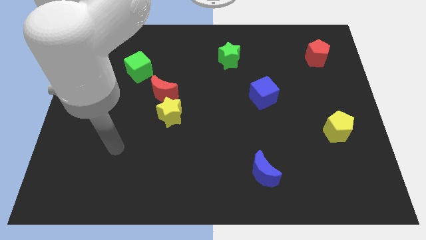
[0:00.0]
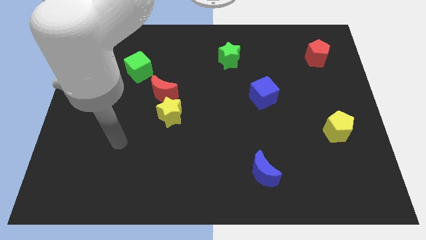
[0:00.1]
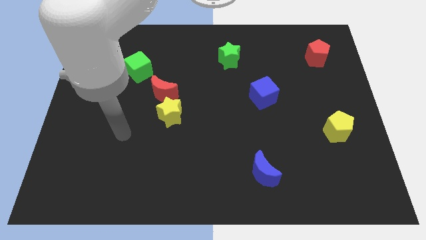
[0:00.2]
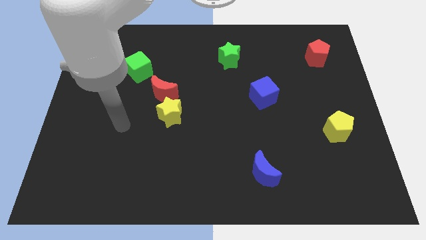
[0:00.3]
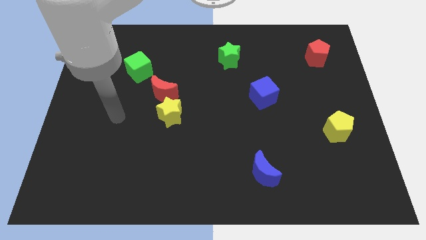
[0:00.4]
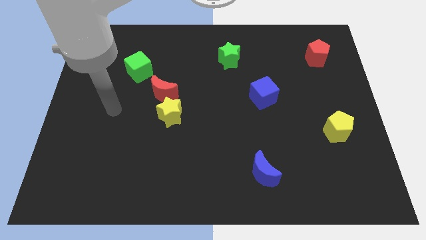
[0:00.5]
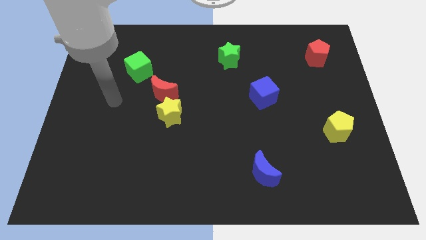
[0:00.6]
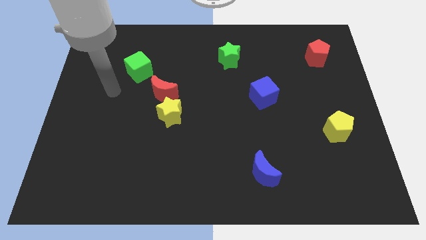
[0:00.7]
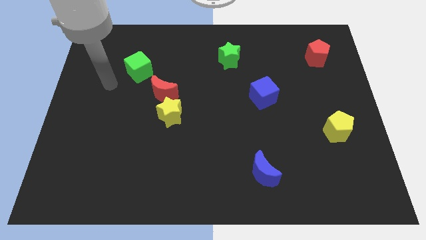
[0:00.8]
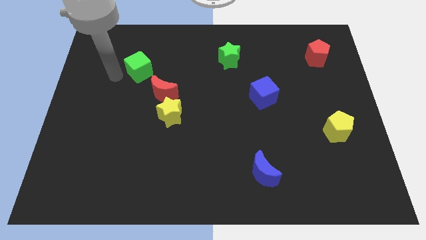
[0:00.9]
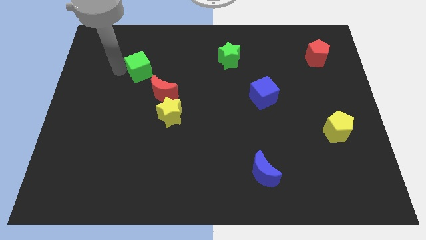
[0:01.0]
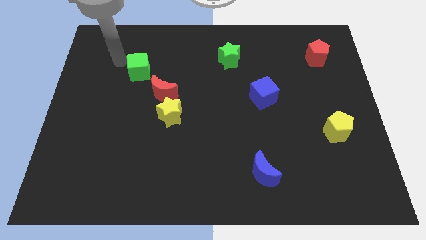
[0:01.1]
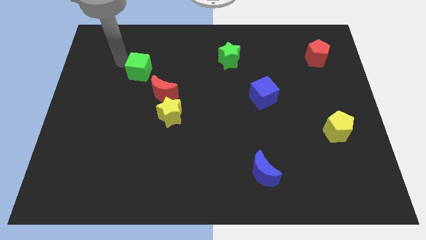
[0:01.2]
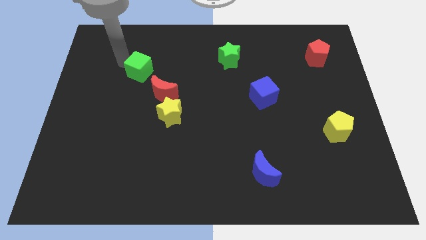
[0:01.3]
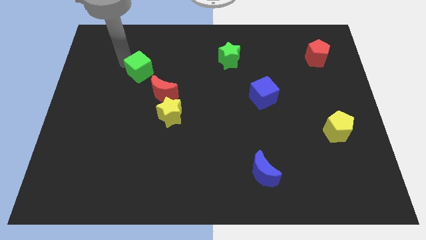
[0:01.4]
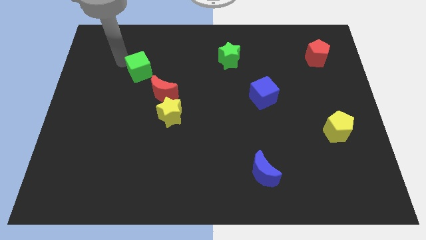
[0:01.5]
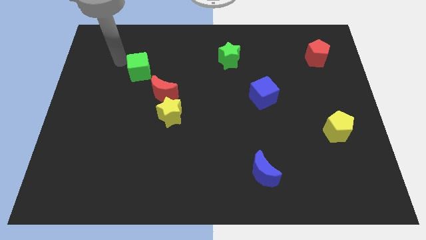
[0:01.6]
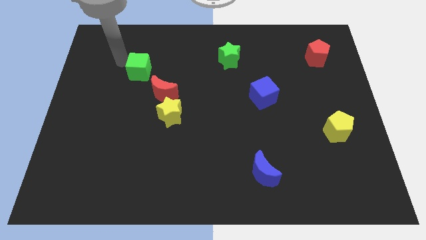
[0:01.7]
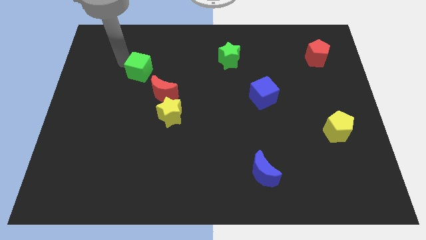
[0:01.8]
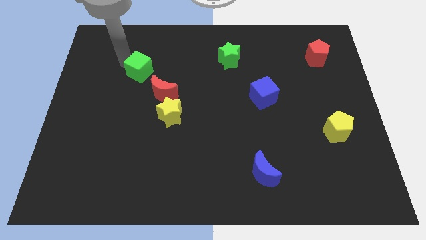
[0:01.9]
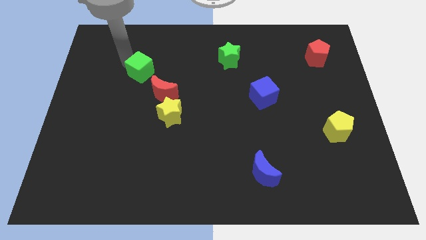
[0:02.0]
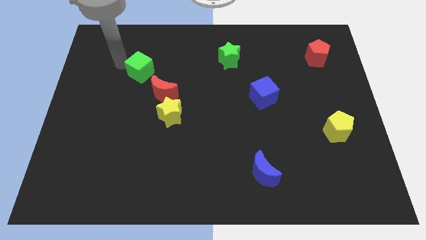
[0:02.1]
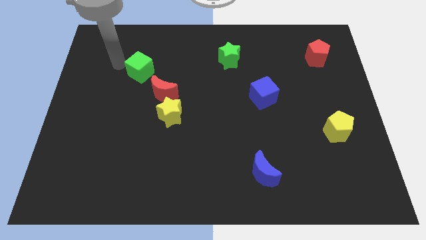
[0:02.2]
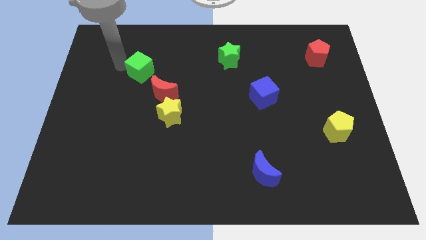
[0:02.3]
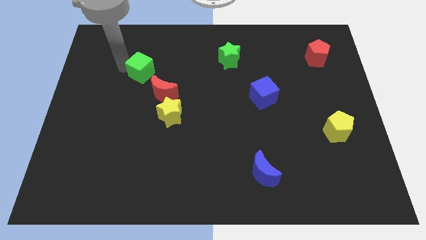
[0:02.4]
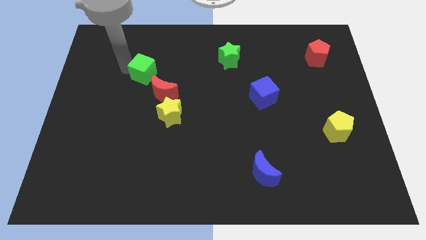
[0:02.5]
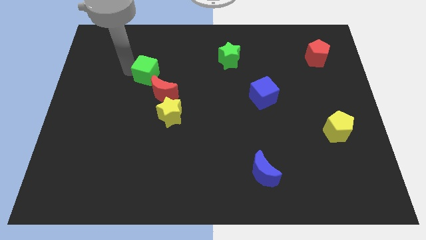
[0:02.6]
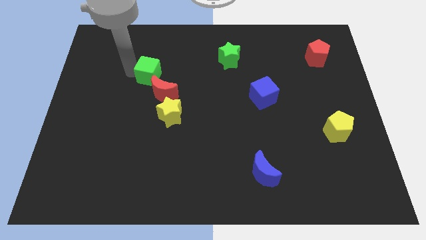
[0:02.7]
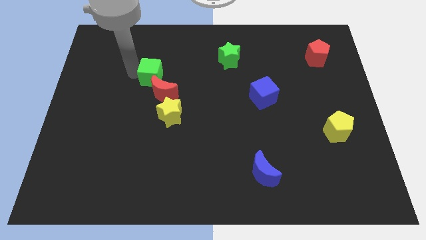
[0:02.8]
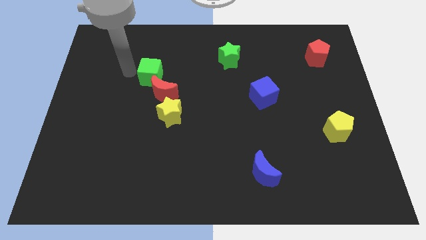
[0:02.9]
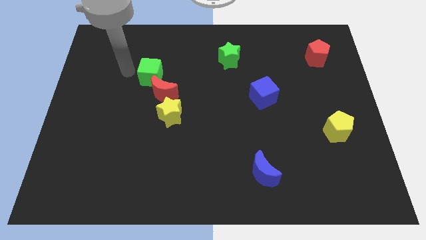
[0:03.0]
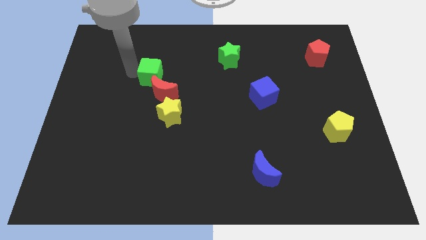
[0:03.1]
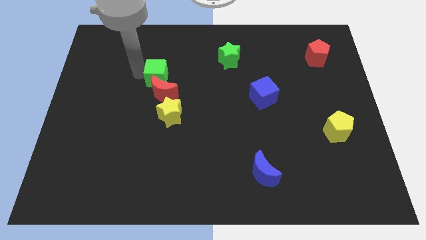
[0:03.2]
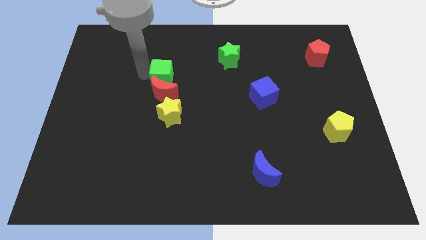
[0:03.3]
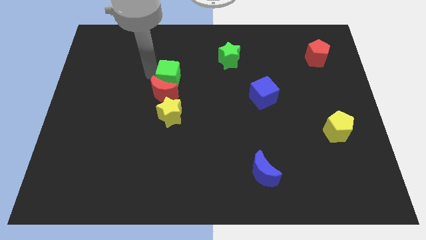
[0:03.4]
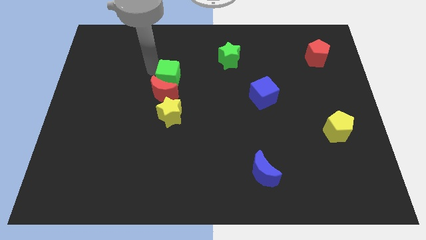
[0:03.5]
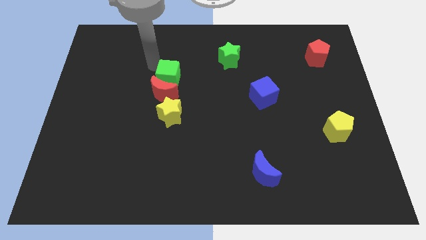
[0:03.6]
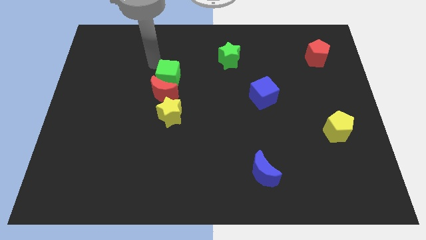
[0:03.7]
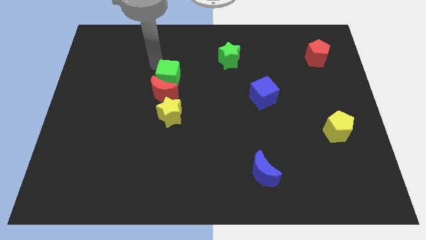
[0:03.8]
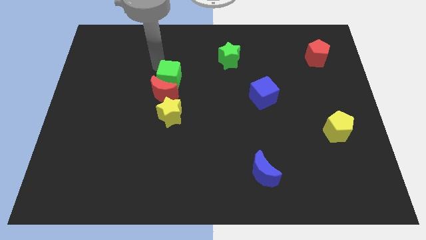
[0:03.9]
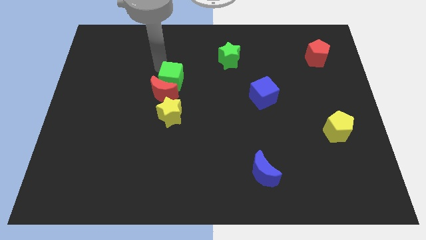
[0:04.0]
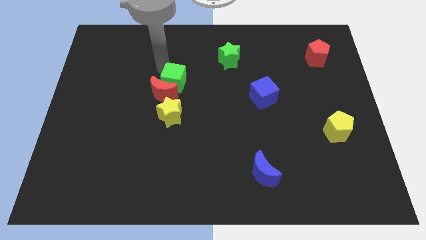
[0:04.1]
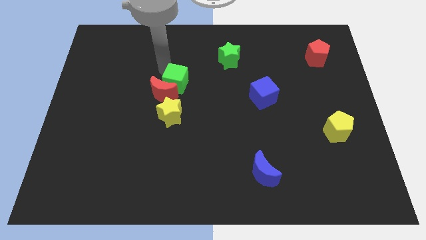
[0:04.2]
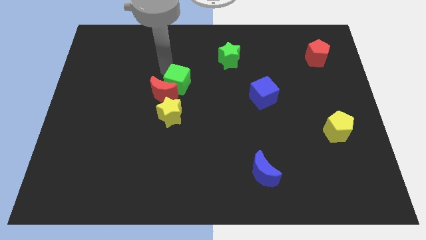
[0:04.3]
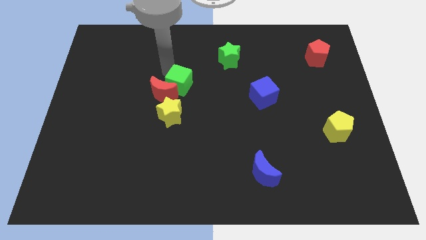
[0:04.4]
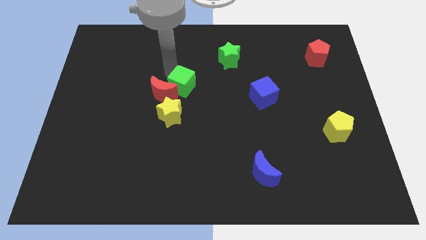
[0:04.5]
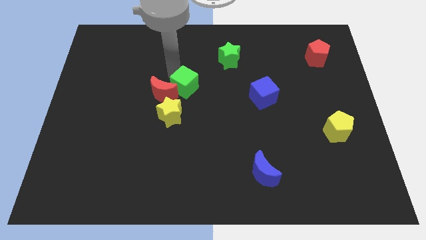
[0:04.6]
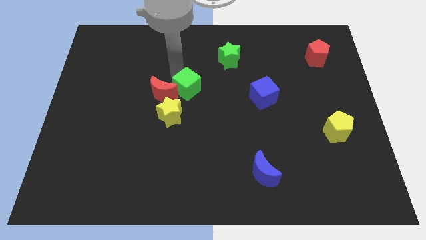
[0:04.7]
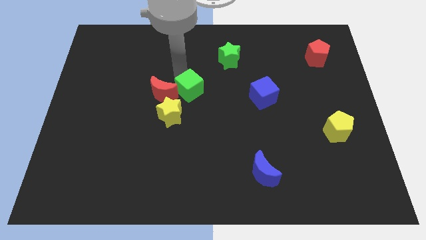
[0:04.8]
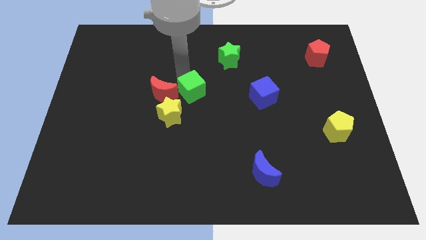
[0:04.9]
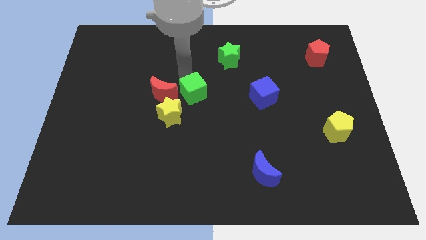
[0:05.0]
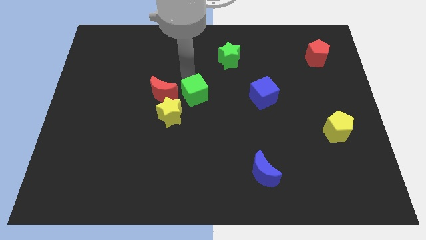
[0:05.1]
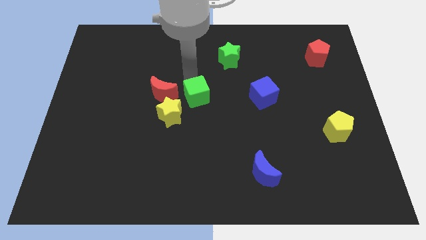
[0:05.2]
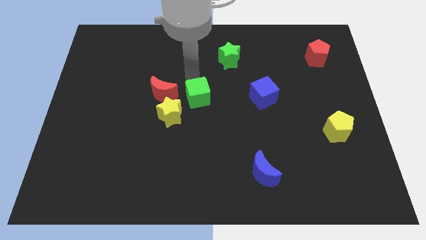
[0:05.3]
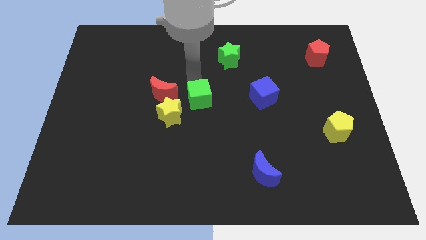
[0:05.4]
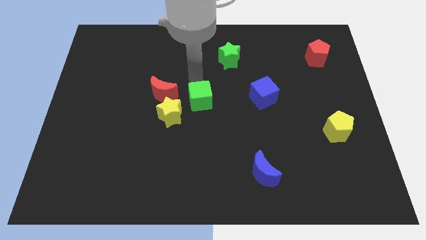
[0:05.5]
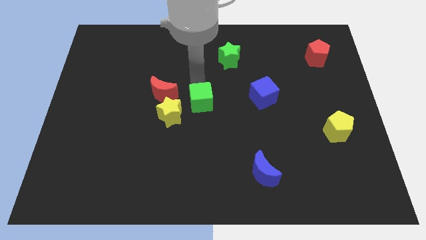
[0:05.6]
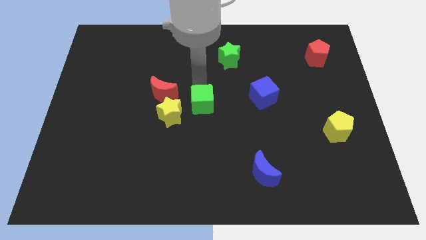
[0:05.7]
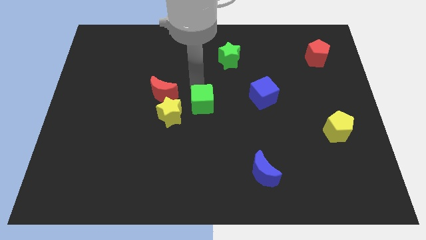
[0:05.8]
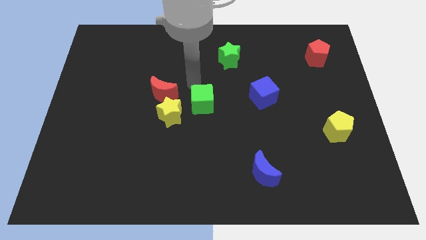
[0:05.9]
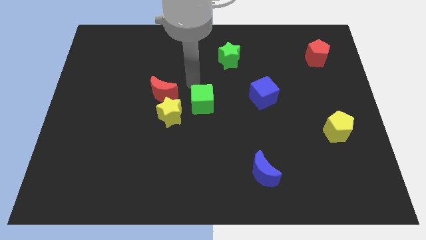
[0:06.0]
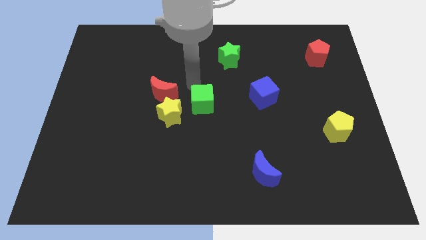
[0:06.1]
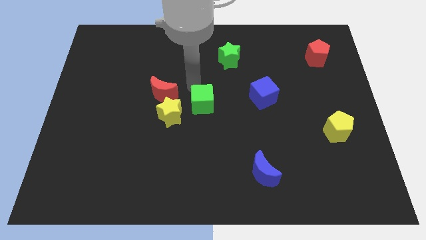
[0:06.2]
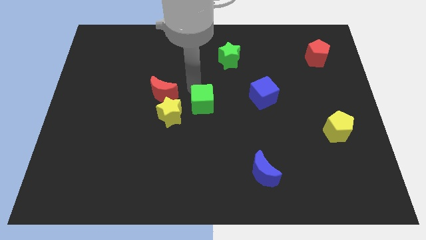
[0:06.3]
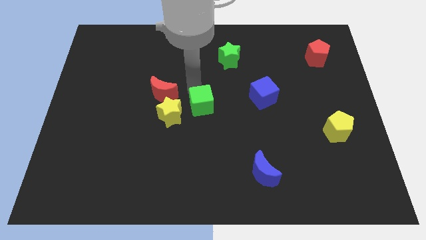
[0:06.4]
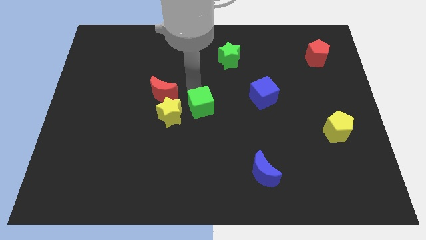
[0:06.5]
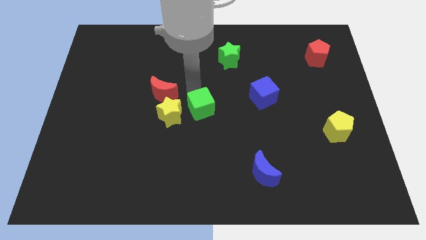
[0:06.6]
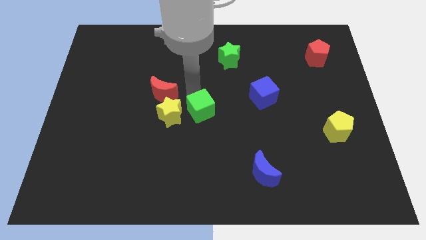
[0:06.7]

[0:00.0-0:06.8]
slide the green cube downwards and right

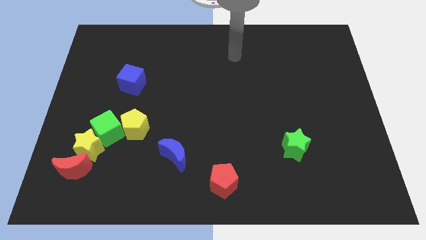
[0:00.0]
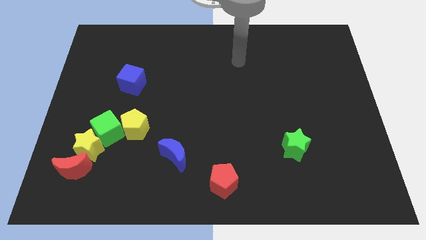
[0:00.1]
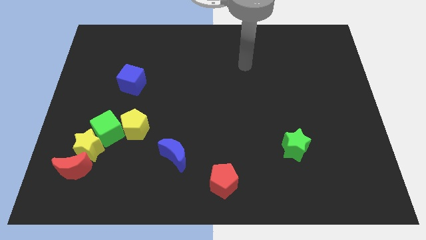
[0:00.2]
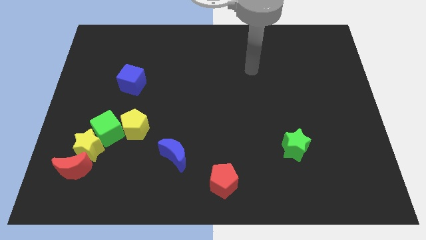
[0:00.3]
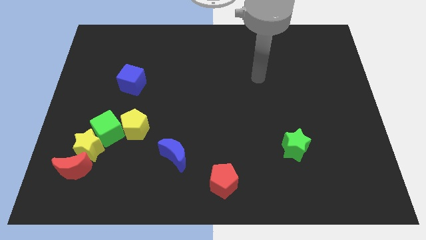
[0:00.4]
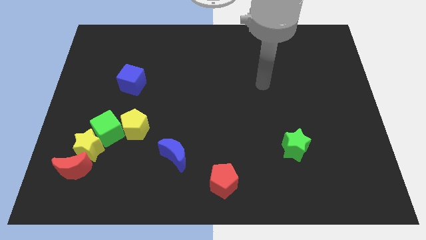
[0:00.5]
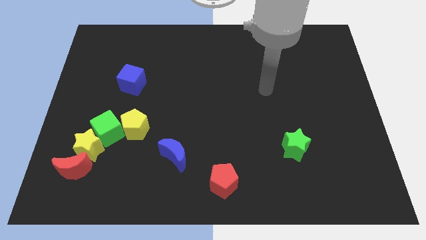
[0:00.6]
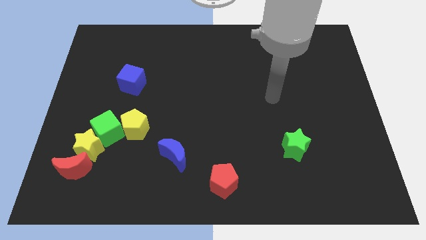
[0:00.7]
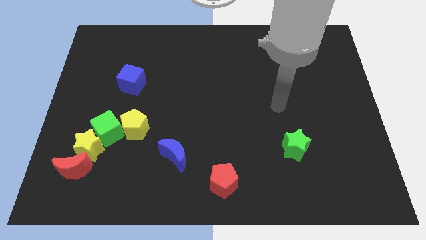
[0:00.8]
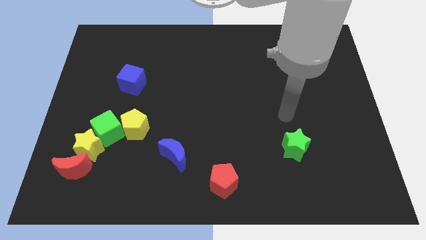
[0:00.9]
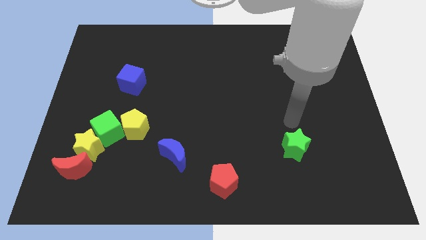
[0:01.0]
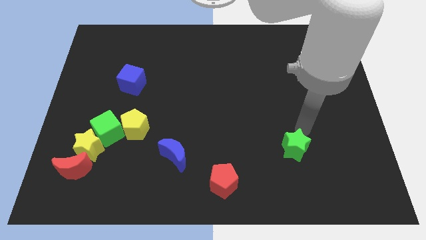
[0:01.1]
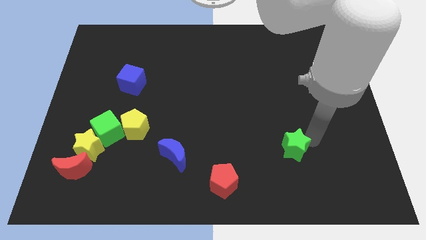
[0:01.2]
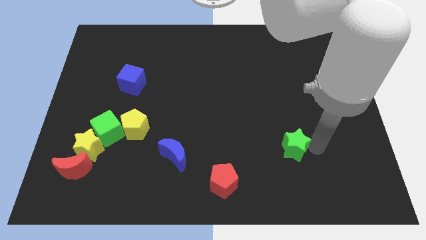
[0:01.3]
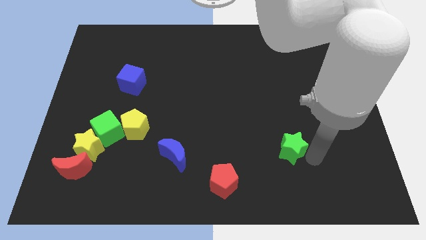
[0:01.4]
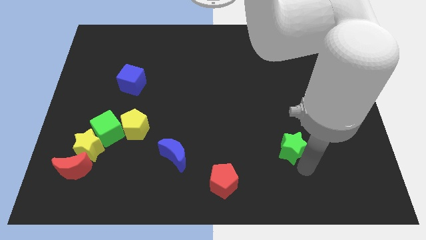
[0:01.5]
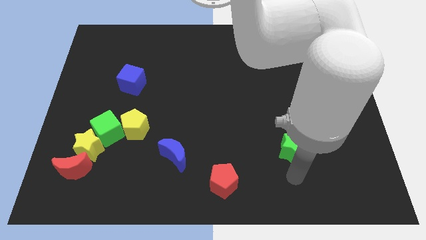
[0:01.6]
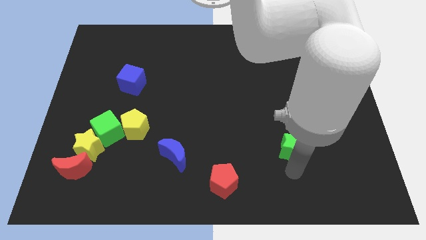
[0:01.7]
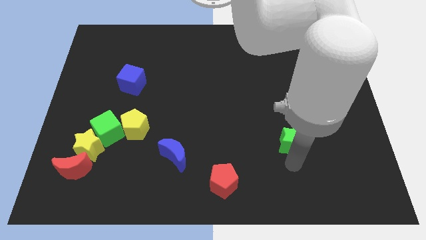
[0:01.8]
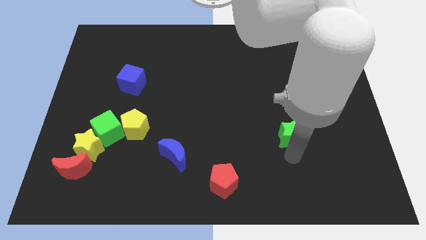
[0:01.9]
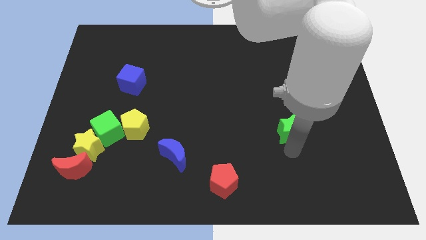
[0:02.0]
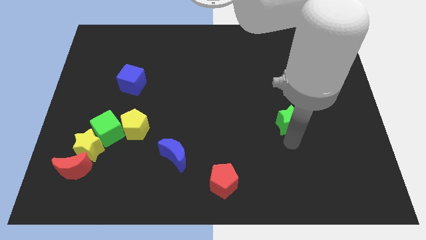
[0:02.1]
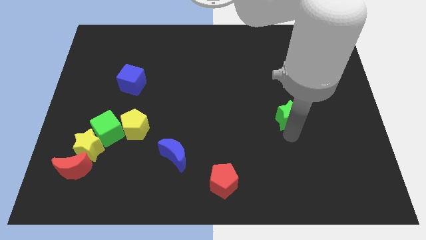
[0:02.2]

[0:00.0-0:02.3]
push the green star up a bit
